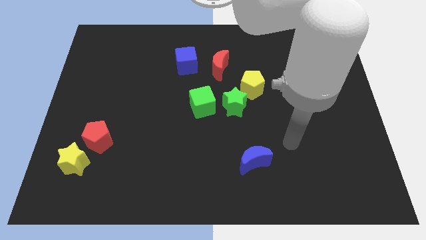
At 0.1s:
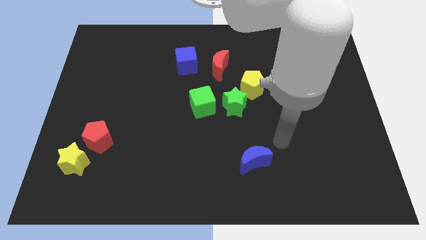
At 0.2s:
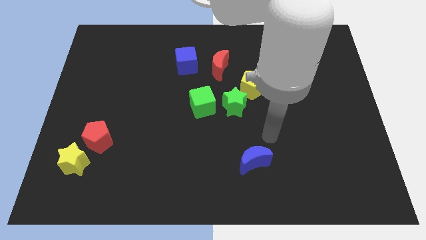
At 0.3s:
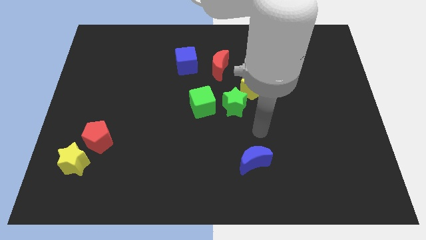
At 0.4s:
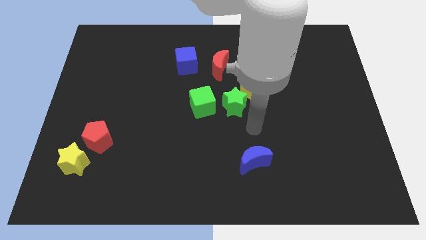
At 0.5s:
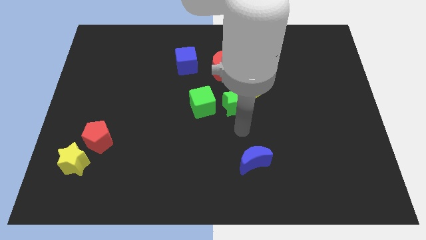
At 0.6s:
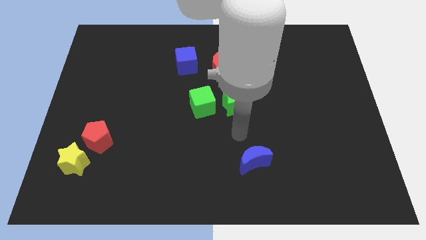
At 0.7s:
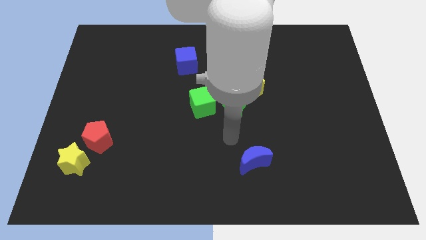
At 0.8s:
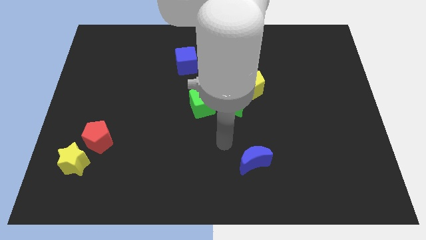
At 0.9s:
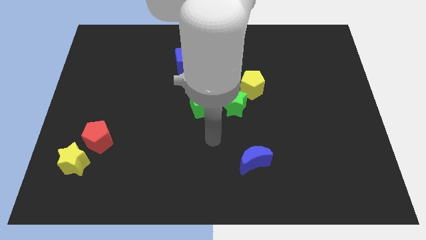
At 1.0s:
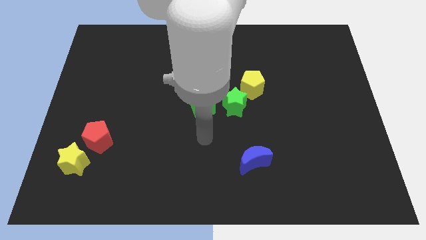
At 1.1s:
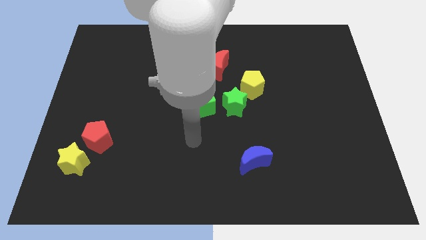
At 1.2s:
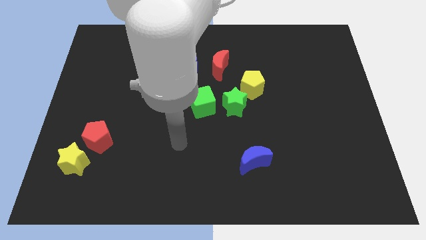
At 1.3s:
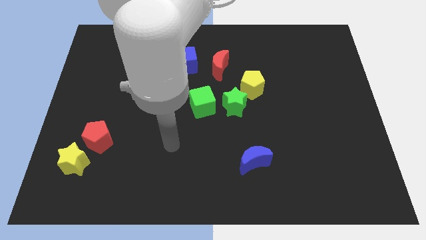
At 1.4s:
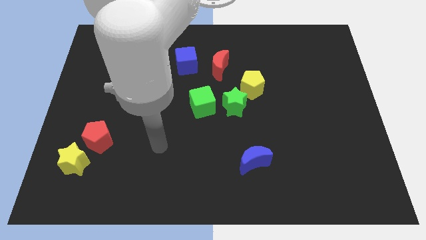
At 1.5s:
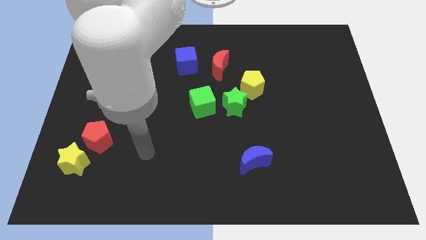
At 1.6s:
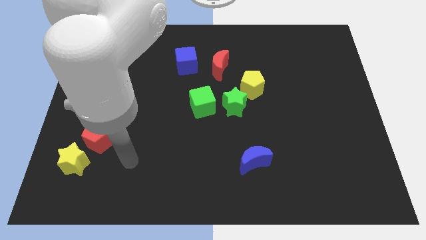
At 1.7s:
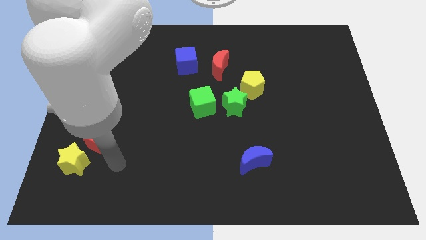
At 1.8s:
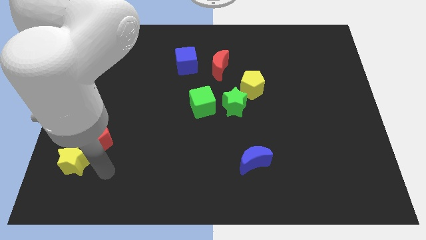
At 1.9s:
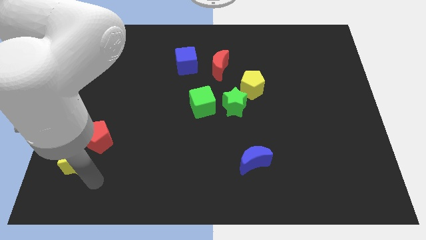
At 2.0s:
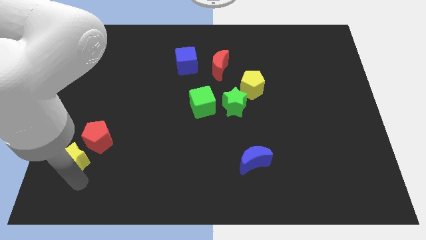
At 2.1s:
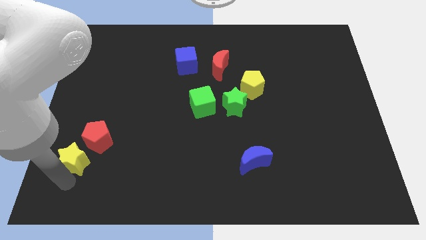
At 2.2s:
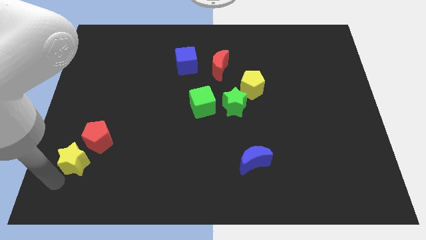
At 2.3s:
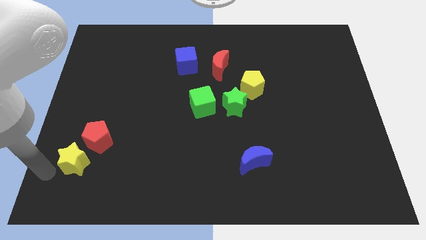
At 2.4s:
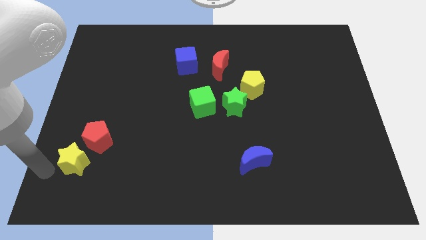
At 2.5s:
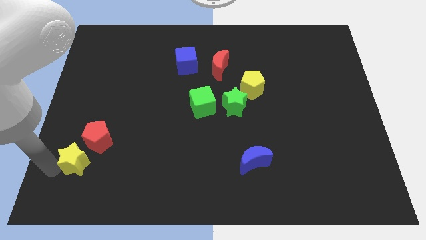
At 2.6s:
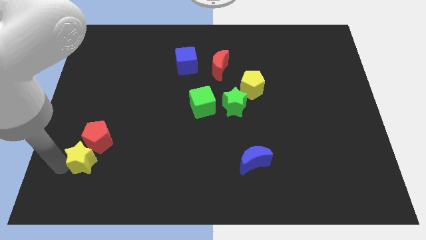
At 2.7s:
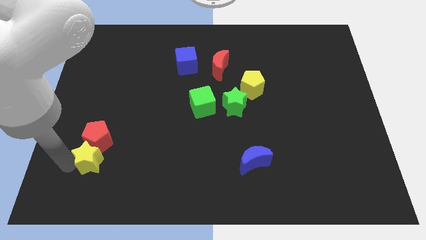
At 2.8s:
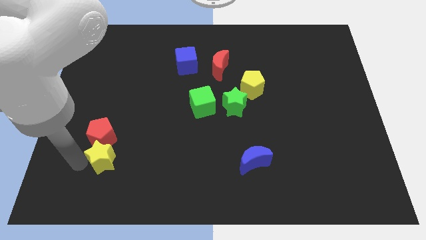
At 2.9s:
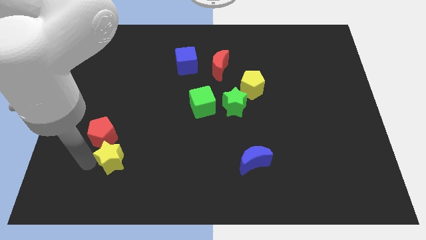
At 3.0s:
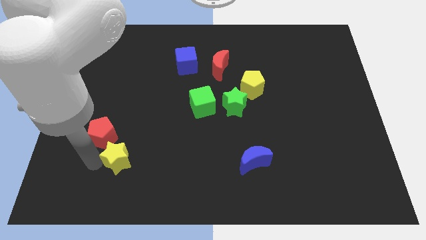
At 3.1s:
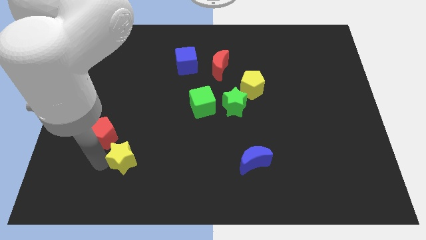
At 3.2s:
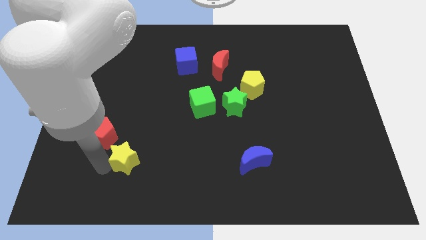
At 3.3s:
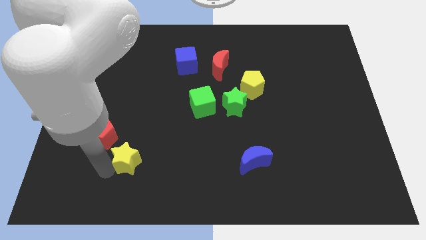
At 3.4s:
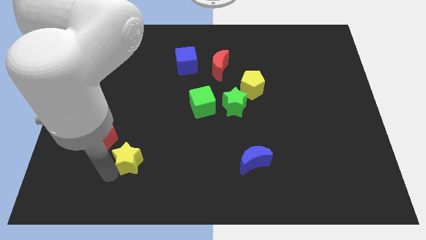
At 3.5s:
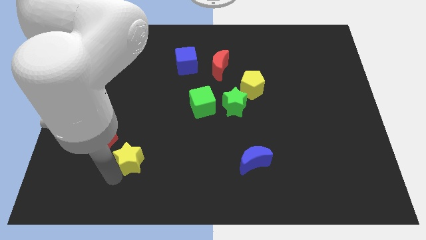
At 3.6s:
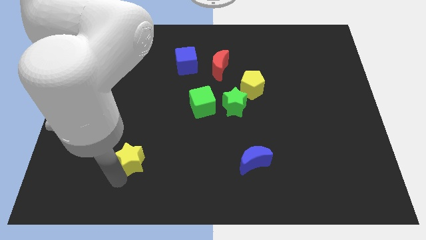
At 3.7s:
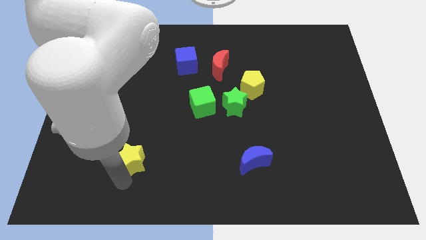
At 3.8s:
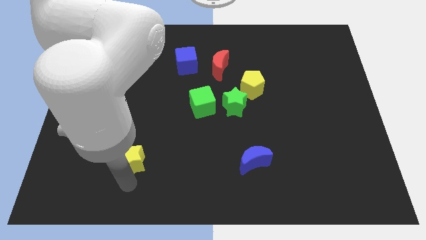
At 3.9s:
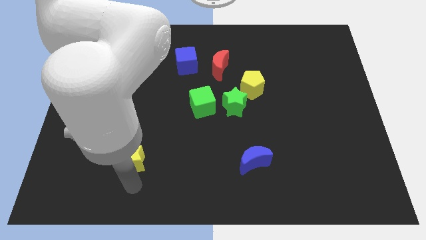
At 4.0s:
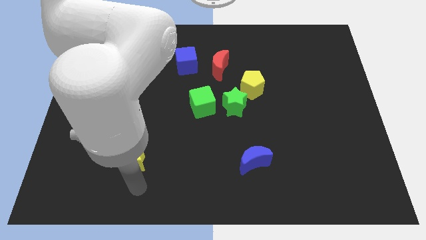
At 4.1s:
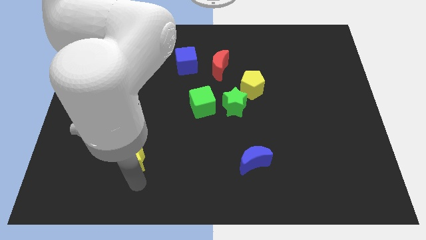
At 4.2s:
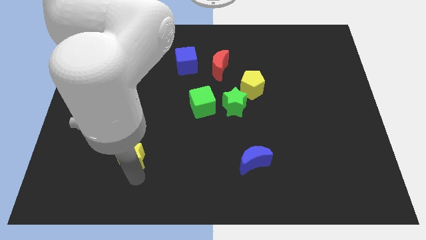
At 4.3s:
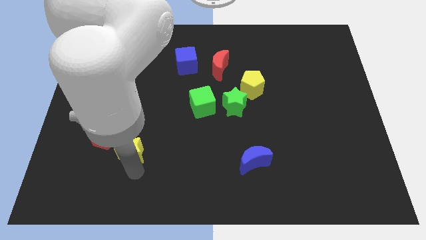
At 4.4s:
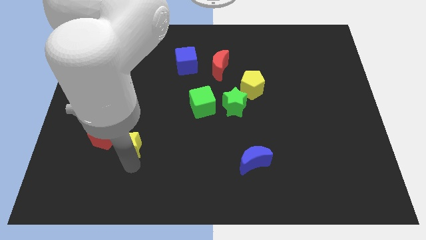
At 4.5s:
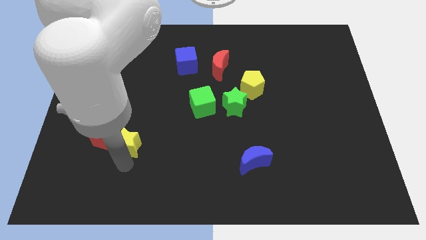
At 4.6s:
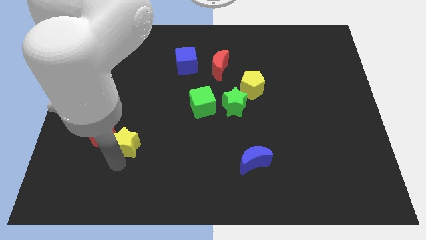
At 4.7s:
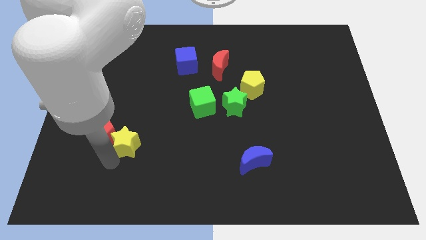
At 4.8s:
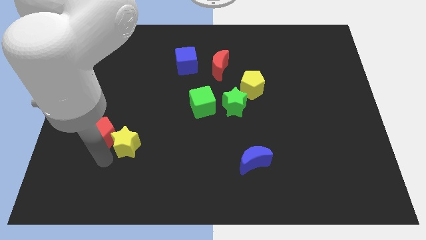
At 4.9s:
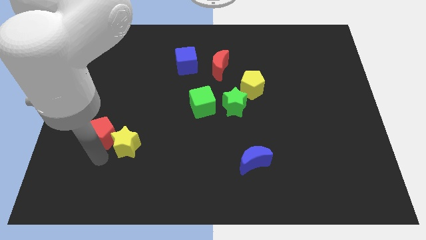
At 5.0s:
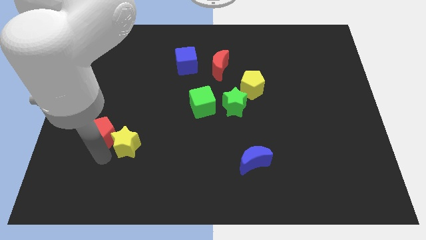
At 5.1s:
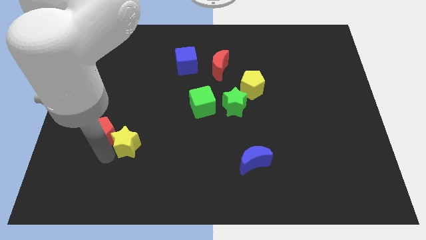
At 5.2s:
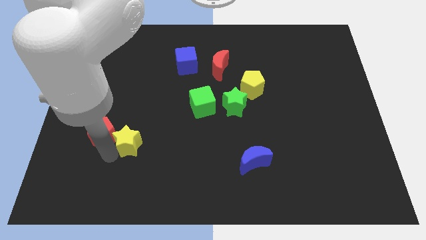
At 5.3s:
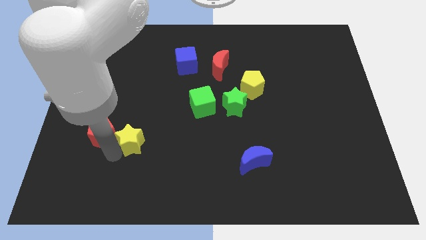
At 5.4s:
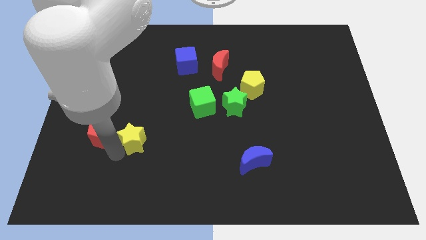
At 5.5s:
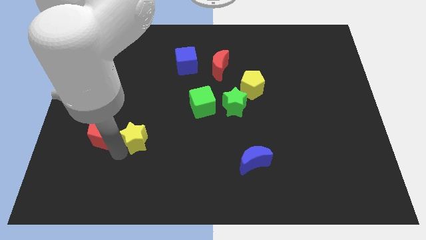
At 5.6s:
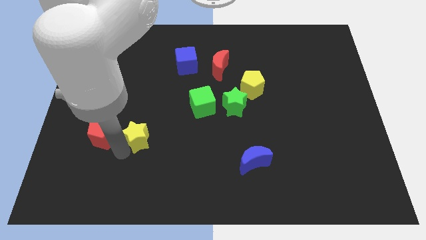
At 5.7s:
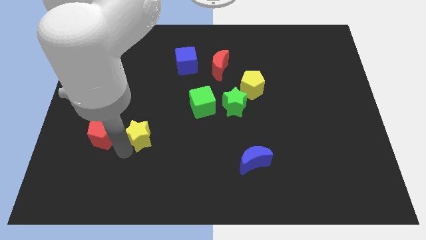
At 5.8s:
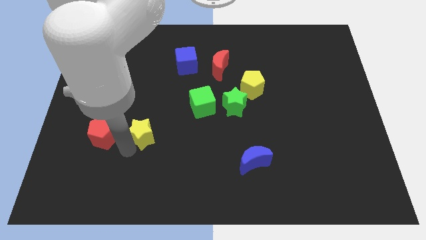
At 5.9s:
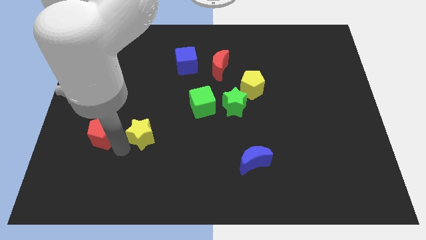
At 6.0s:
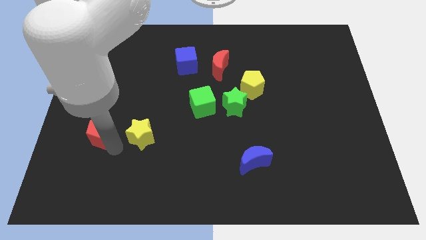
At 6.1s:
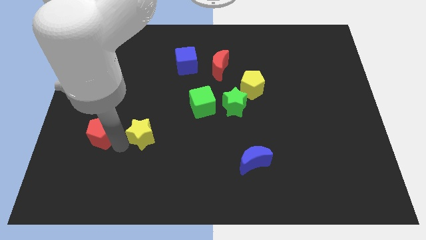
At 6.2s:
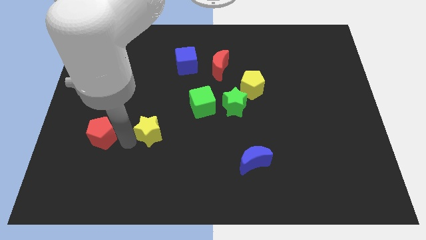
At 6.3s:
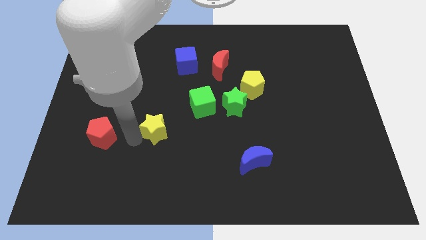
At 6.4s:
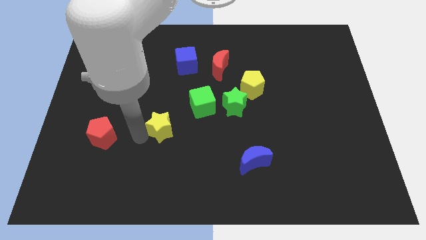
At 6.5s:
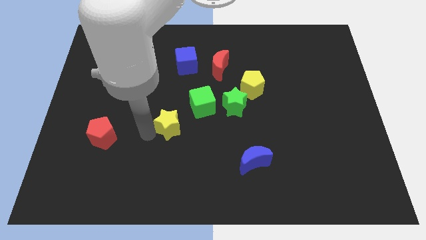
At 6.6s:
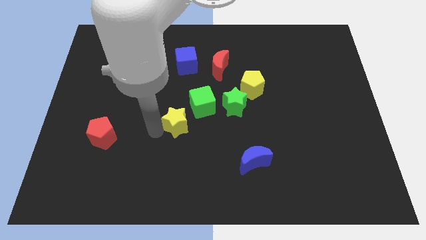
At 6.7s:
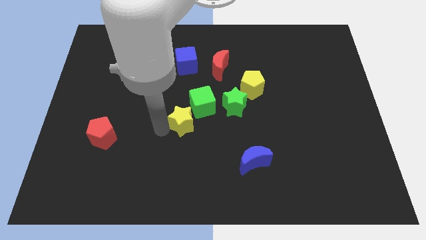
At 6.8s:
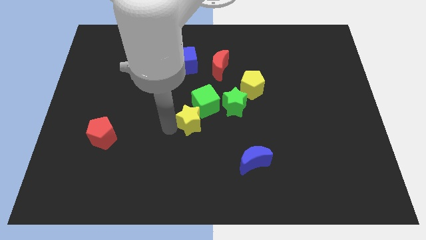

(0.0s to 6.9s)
move the yellow star close to the green cube
